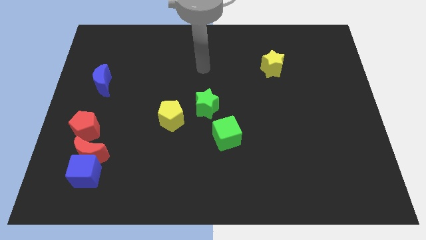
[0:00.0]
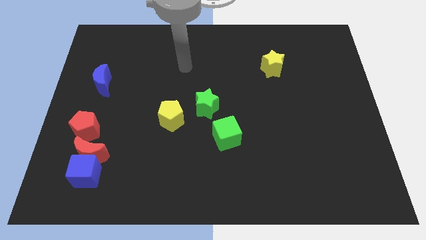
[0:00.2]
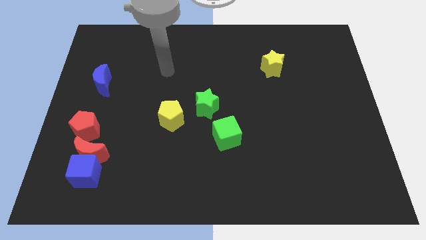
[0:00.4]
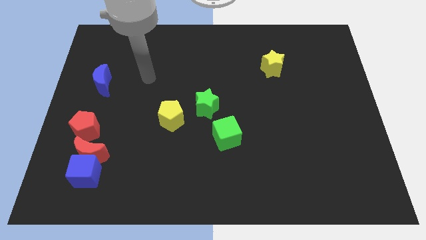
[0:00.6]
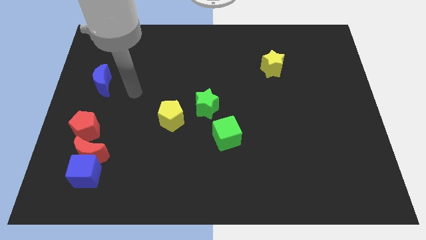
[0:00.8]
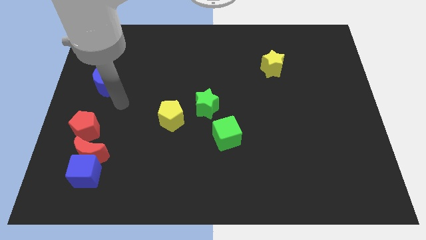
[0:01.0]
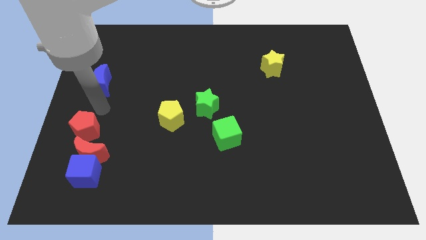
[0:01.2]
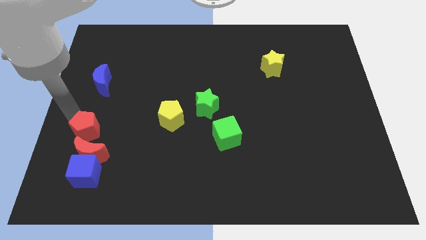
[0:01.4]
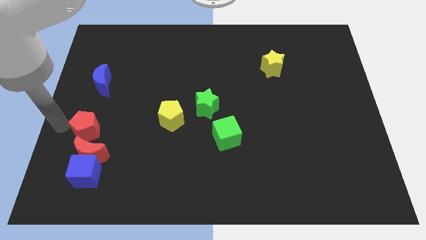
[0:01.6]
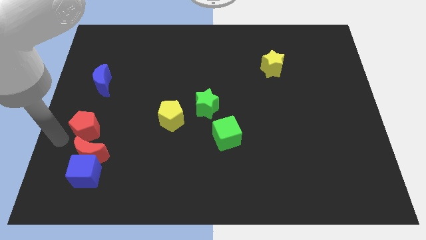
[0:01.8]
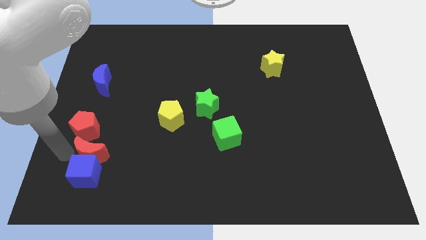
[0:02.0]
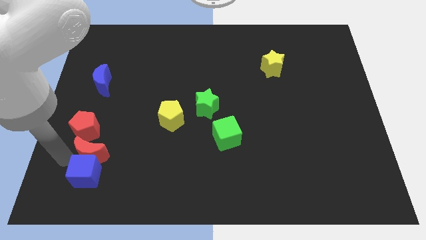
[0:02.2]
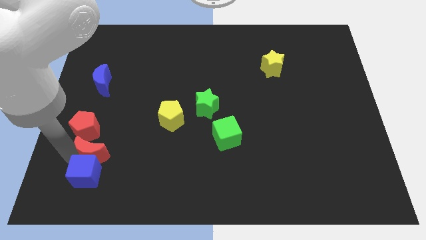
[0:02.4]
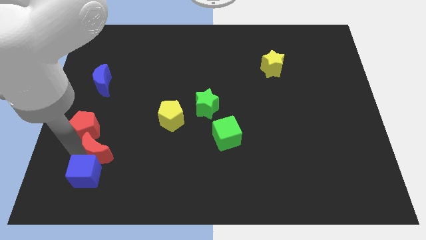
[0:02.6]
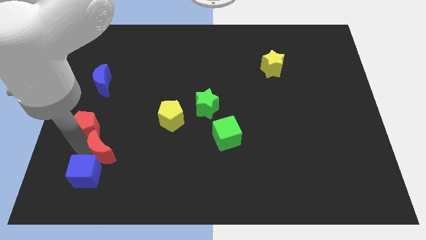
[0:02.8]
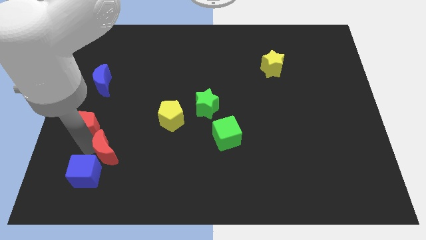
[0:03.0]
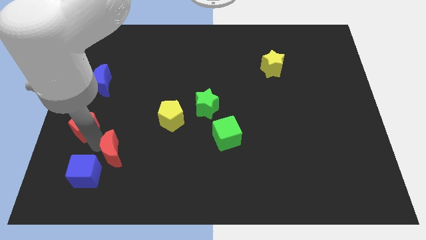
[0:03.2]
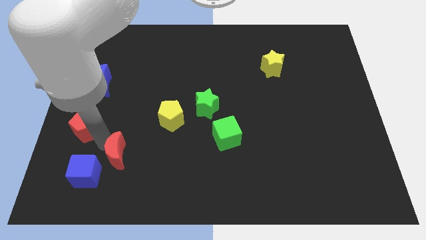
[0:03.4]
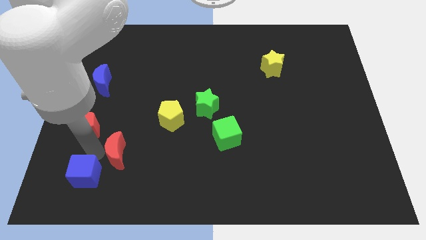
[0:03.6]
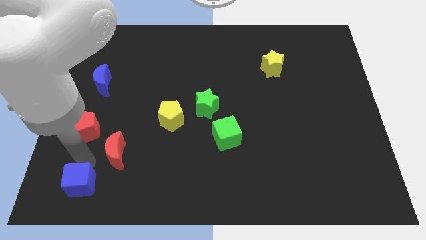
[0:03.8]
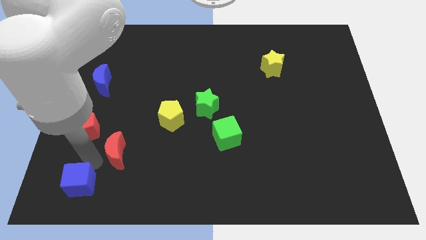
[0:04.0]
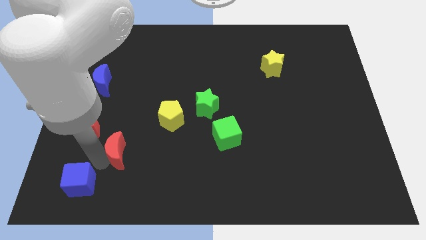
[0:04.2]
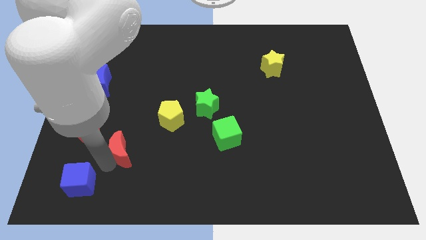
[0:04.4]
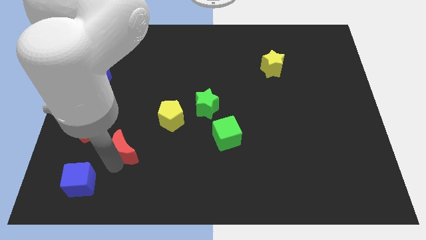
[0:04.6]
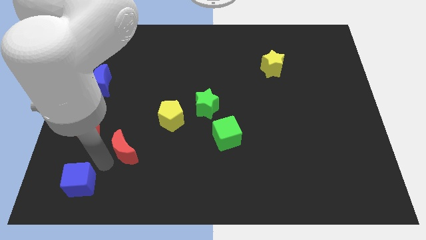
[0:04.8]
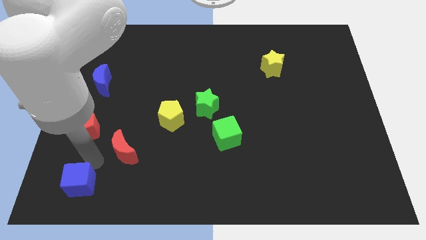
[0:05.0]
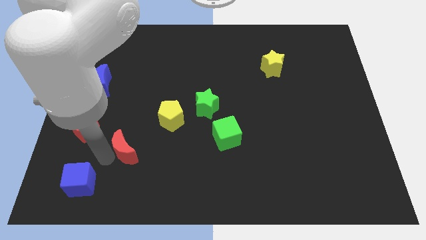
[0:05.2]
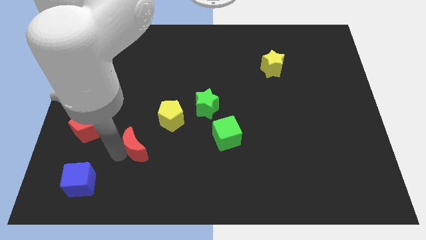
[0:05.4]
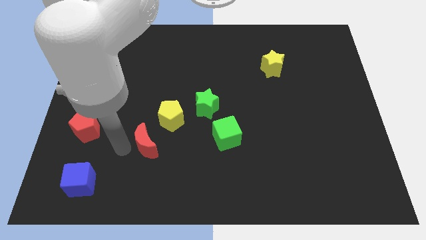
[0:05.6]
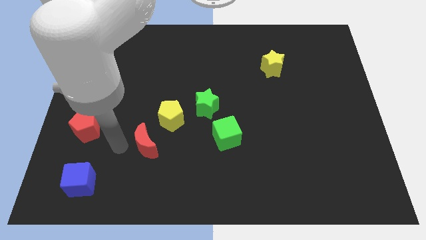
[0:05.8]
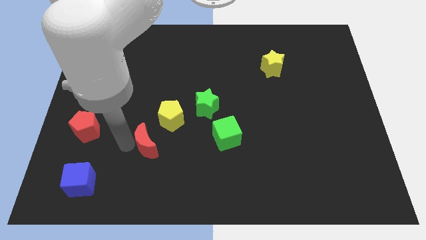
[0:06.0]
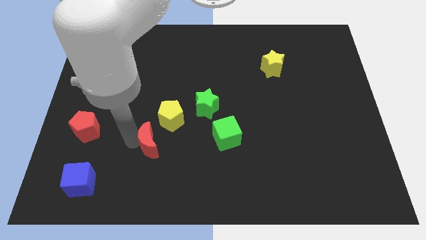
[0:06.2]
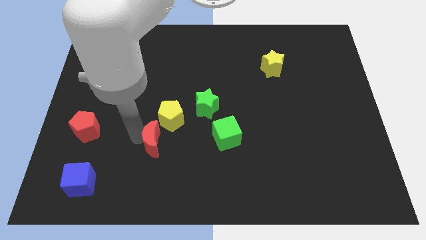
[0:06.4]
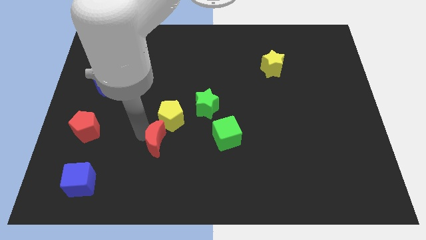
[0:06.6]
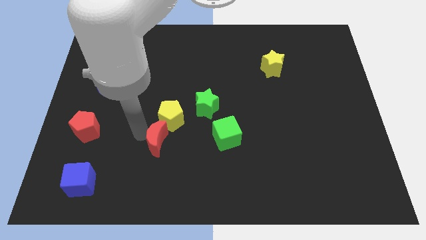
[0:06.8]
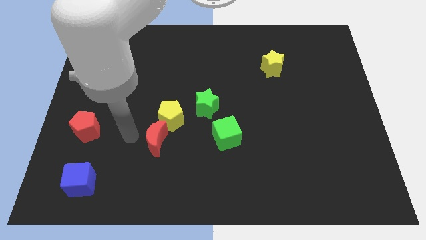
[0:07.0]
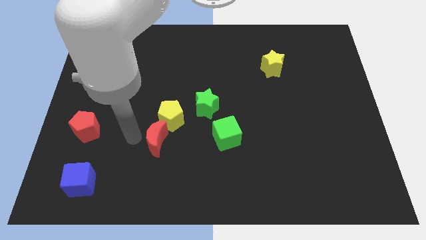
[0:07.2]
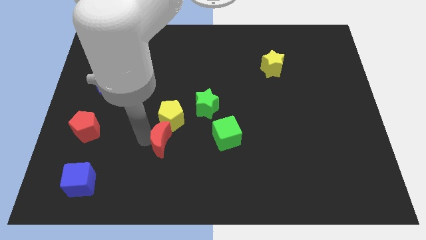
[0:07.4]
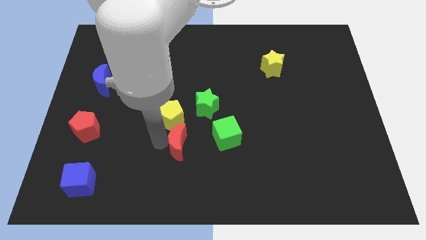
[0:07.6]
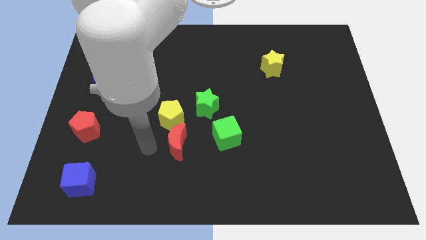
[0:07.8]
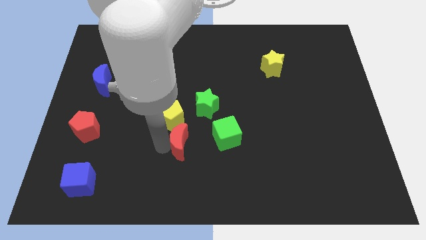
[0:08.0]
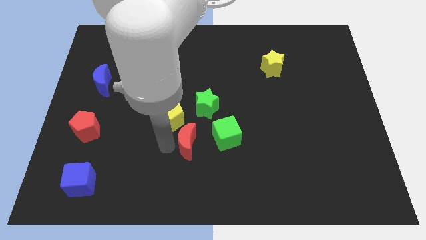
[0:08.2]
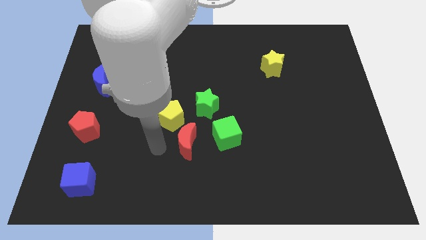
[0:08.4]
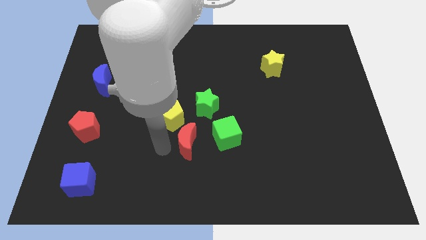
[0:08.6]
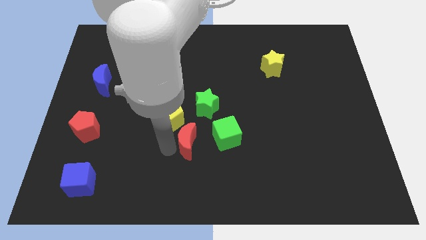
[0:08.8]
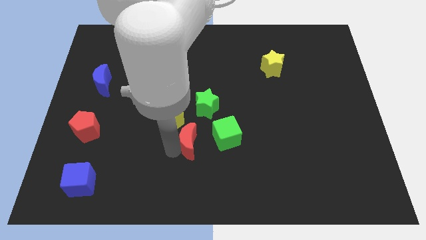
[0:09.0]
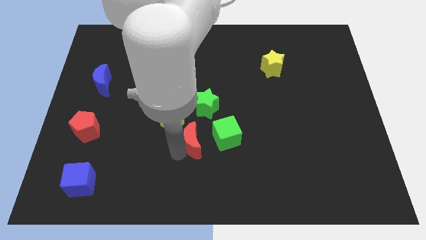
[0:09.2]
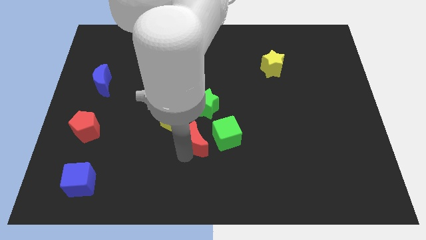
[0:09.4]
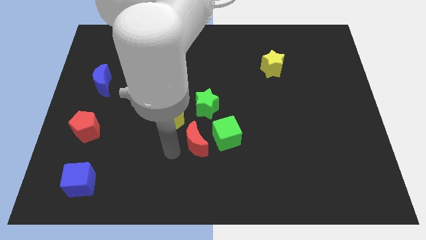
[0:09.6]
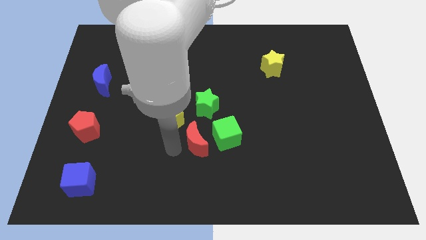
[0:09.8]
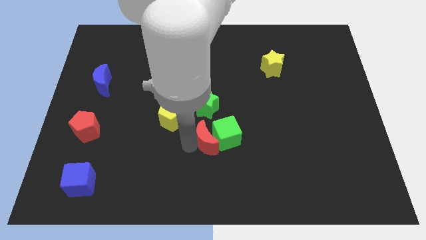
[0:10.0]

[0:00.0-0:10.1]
push the red moon to the green cube

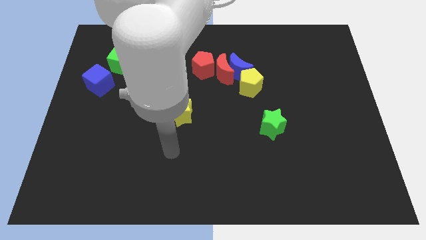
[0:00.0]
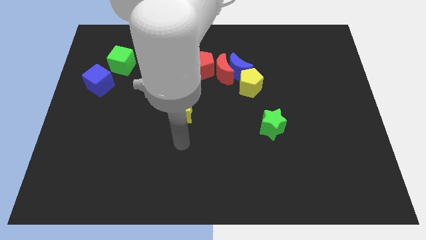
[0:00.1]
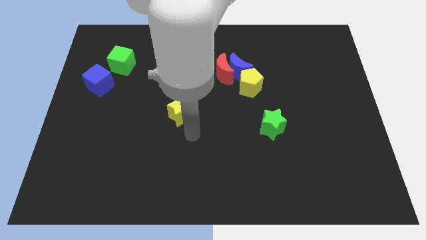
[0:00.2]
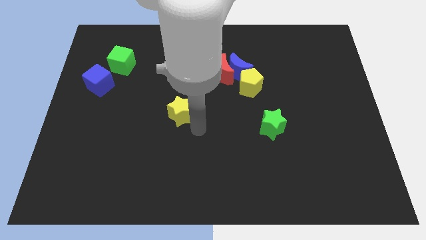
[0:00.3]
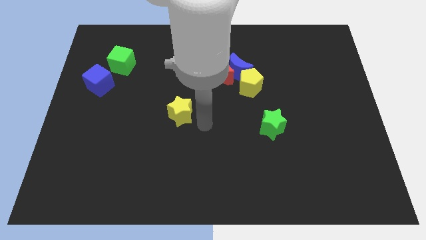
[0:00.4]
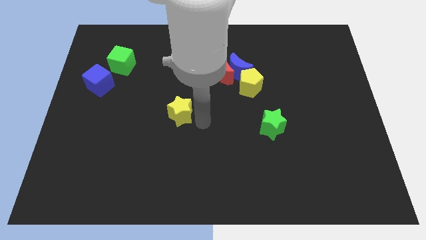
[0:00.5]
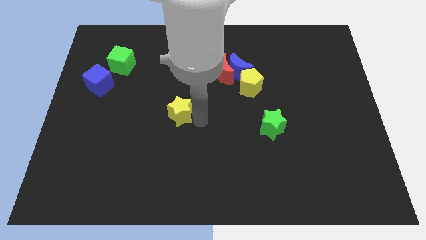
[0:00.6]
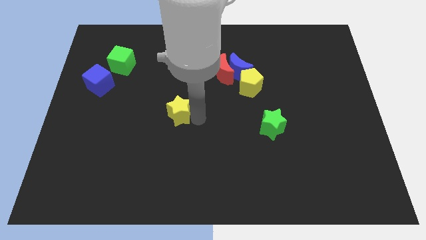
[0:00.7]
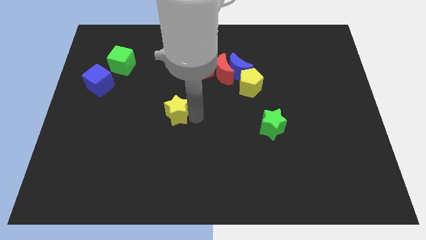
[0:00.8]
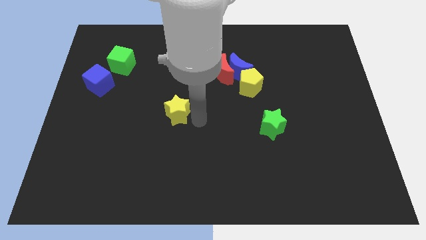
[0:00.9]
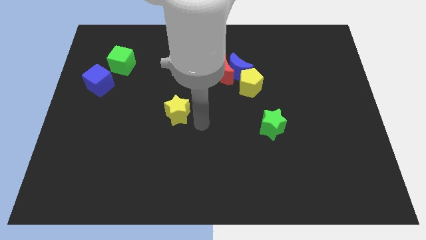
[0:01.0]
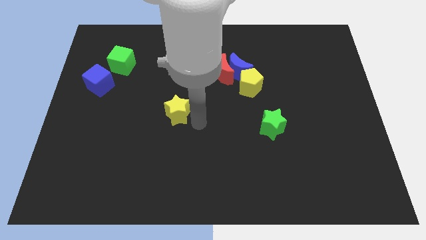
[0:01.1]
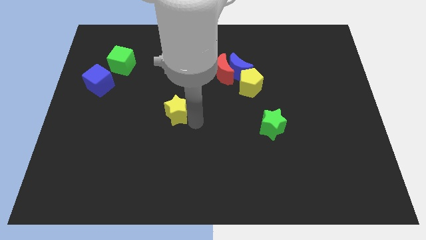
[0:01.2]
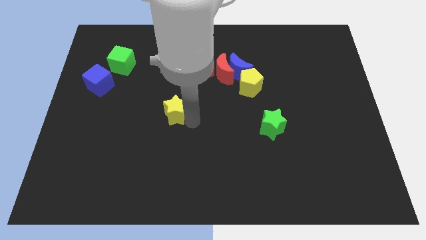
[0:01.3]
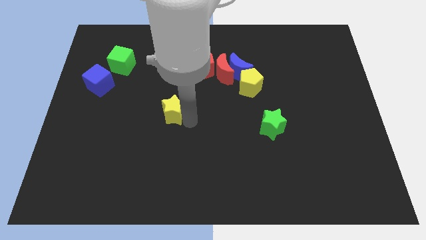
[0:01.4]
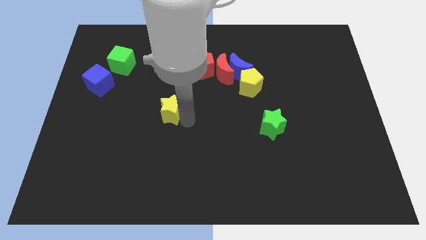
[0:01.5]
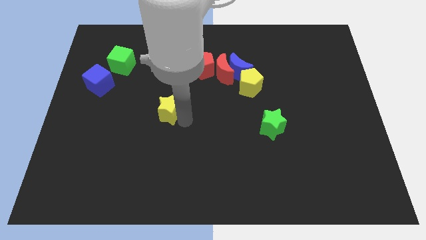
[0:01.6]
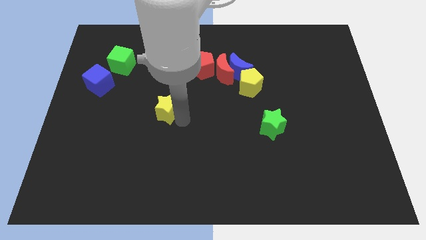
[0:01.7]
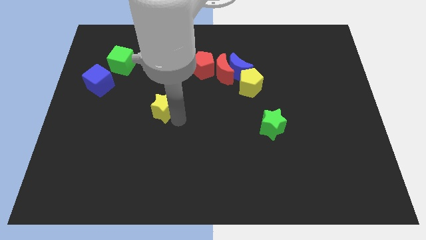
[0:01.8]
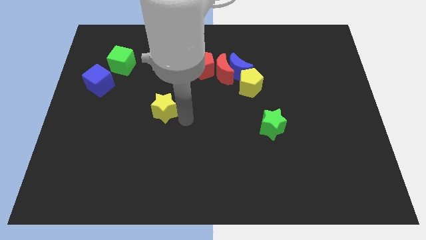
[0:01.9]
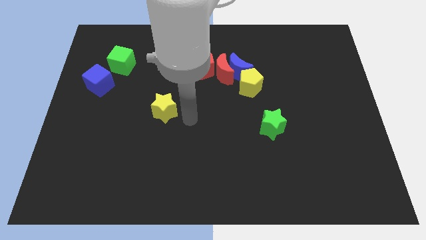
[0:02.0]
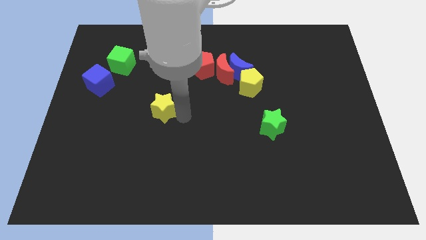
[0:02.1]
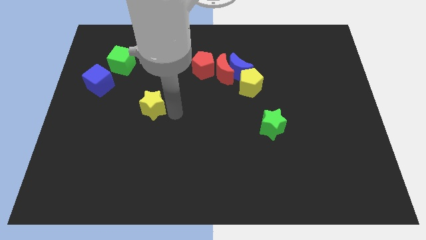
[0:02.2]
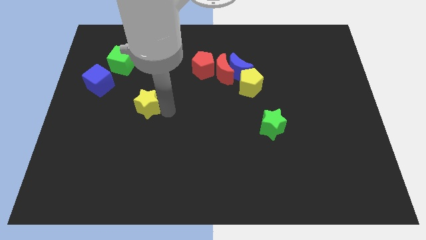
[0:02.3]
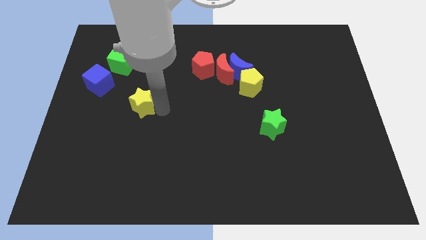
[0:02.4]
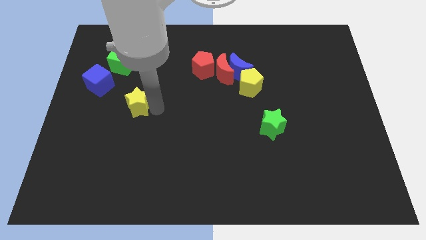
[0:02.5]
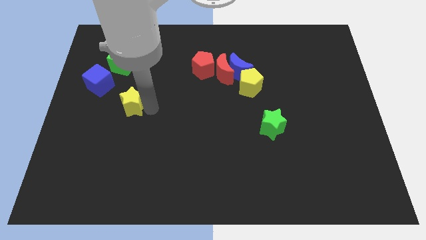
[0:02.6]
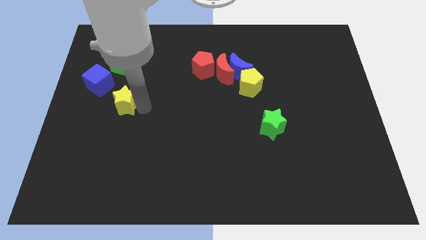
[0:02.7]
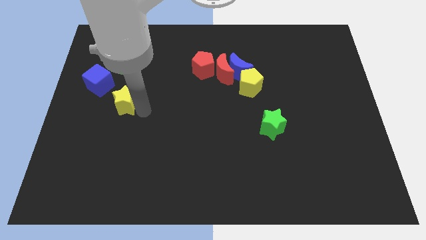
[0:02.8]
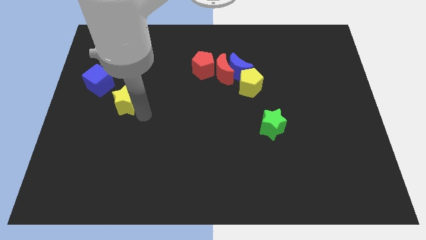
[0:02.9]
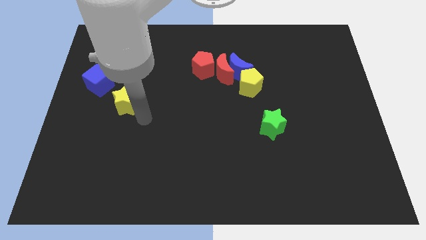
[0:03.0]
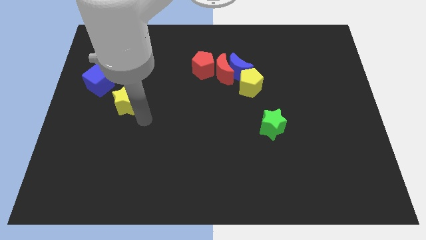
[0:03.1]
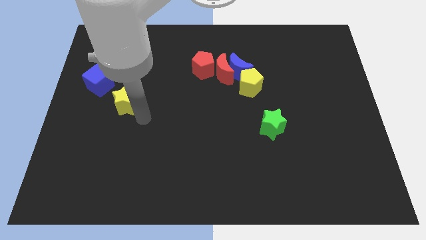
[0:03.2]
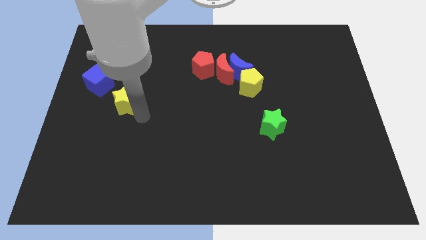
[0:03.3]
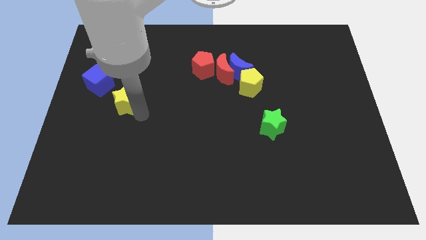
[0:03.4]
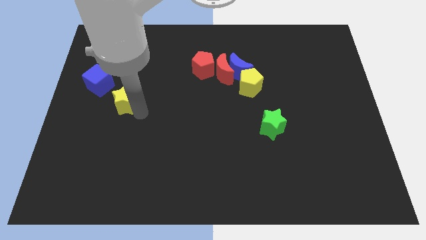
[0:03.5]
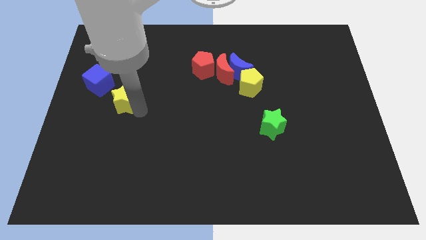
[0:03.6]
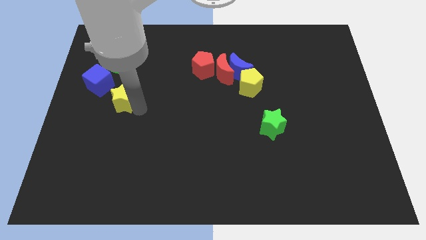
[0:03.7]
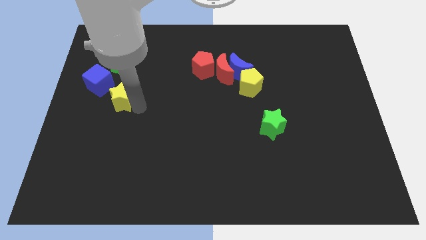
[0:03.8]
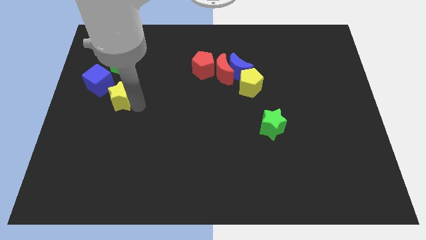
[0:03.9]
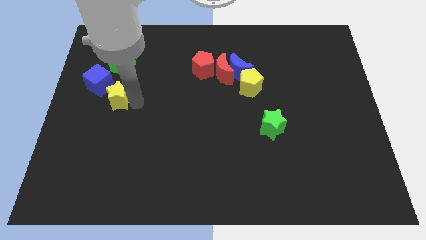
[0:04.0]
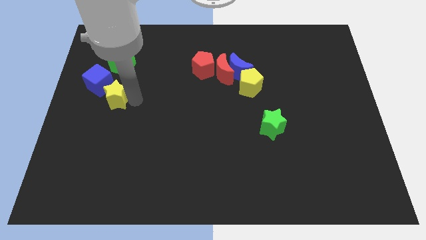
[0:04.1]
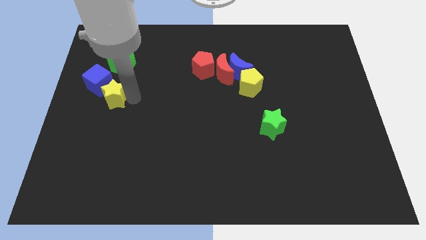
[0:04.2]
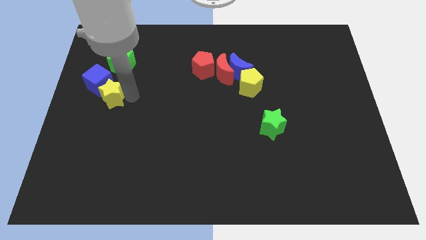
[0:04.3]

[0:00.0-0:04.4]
push the yellow star close to the blue cube
